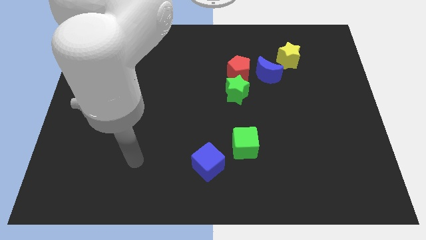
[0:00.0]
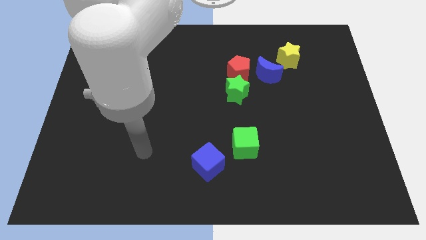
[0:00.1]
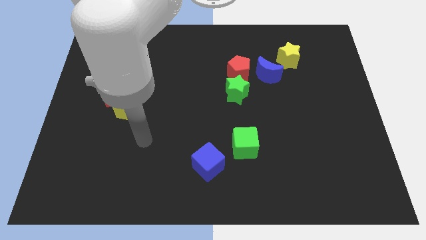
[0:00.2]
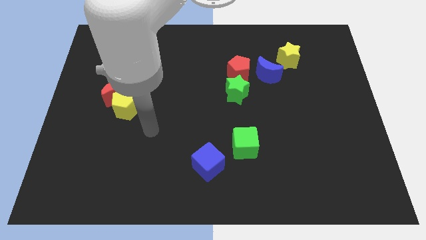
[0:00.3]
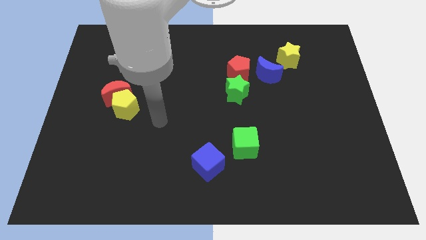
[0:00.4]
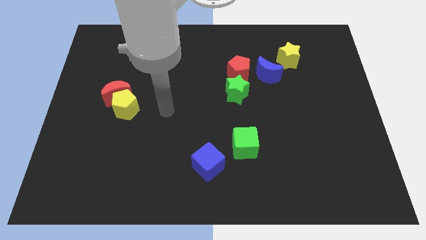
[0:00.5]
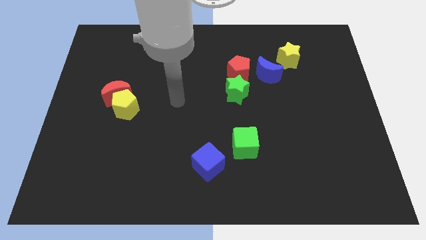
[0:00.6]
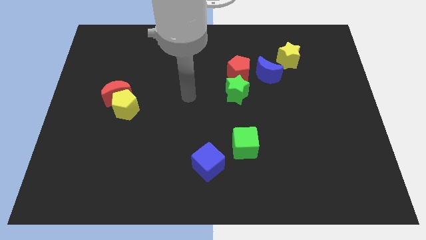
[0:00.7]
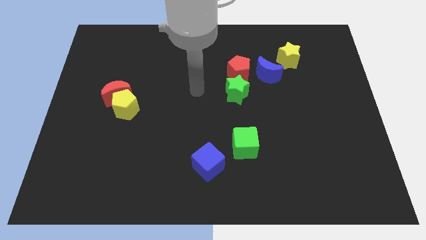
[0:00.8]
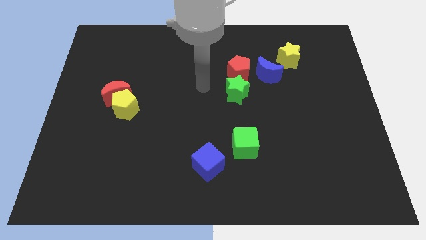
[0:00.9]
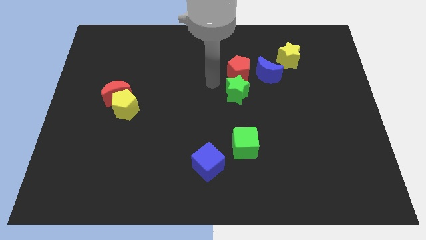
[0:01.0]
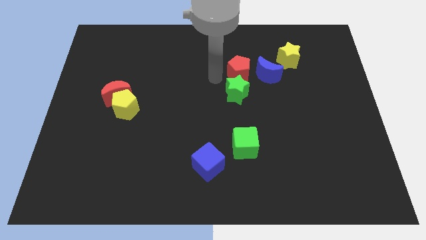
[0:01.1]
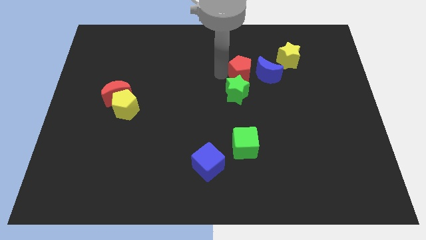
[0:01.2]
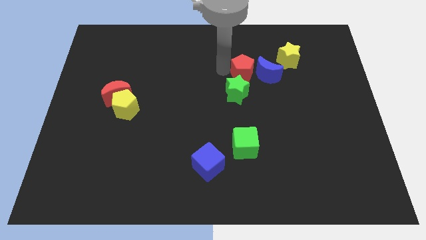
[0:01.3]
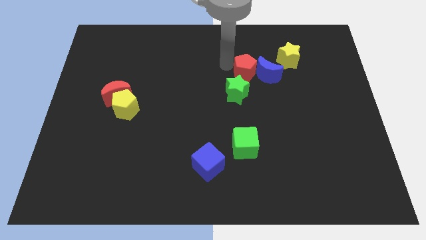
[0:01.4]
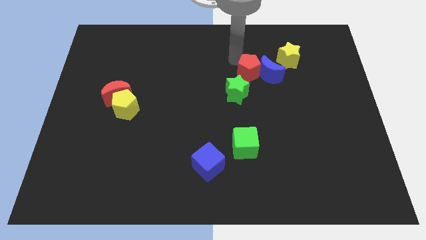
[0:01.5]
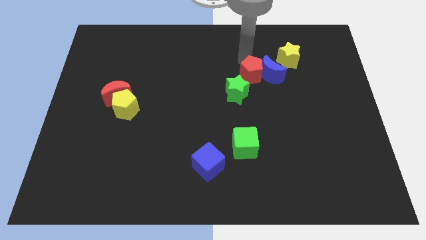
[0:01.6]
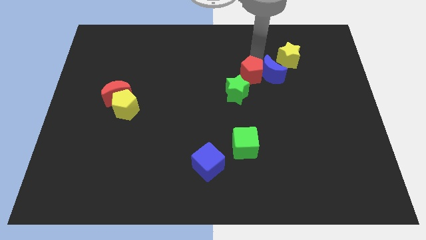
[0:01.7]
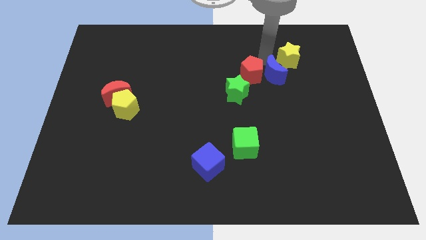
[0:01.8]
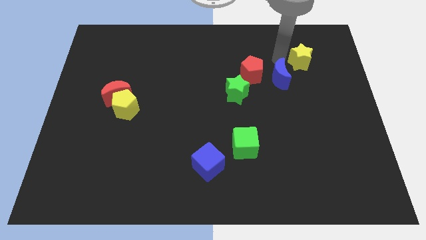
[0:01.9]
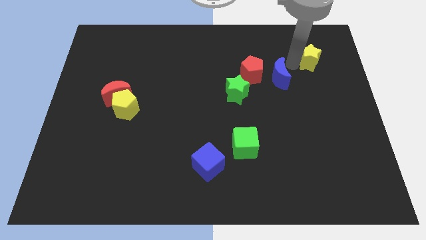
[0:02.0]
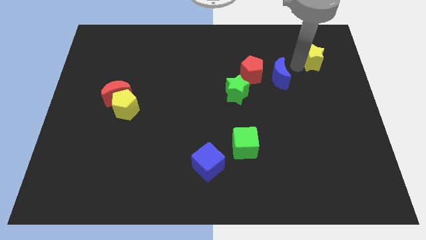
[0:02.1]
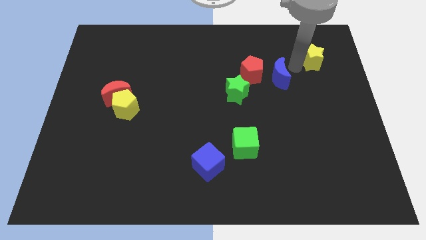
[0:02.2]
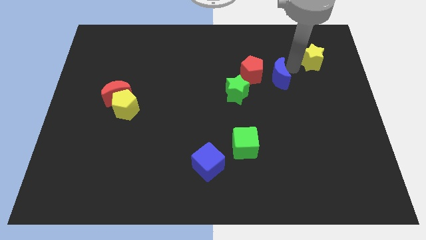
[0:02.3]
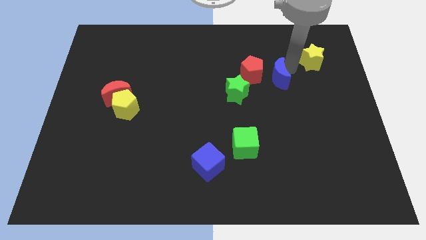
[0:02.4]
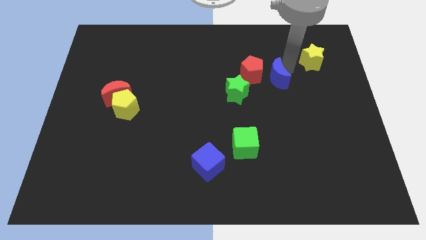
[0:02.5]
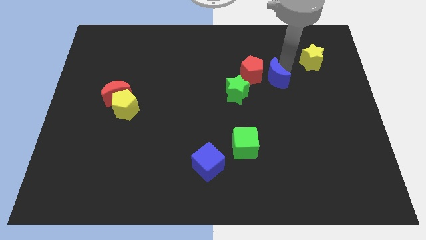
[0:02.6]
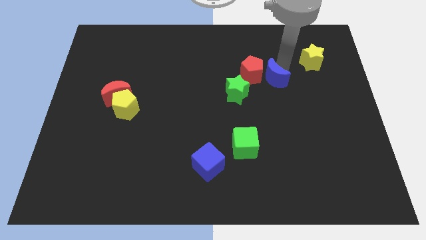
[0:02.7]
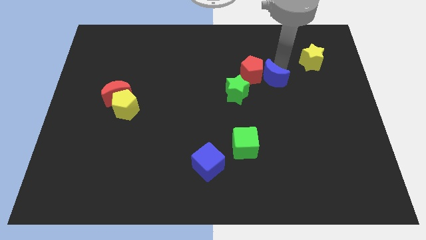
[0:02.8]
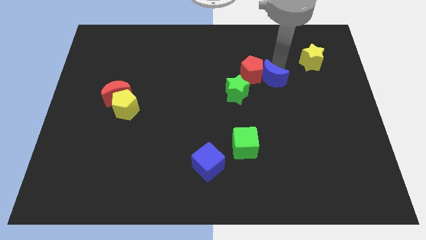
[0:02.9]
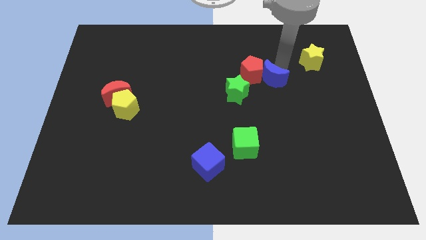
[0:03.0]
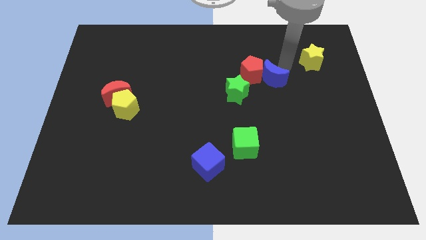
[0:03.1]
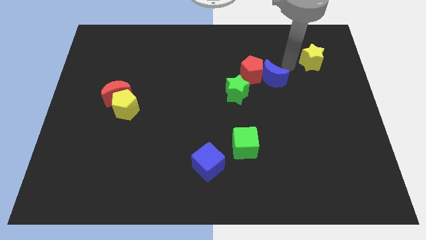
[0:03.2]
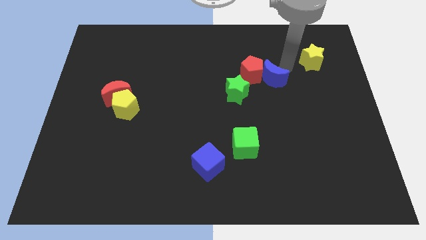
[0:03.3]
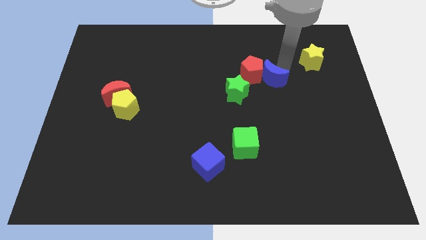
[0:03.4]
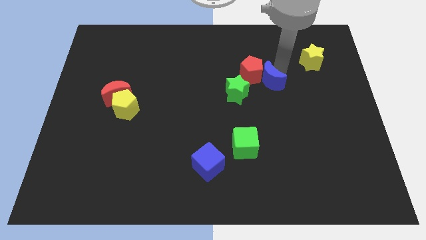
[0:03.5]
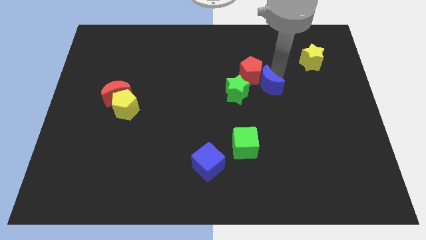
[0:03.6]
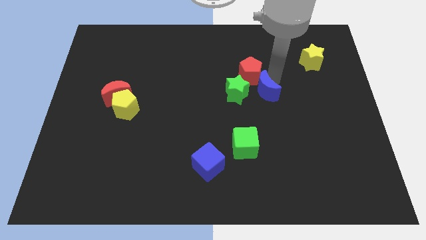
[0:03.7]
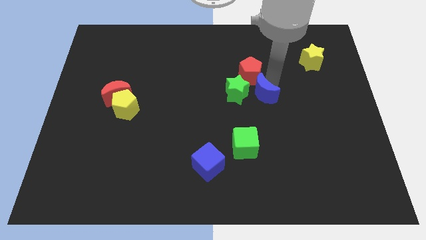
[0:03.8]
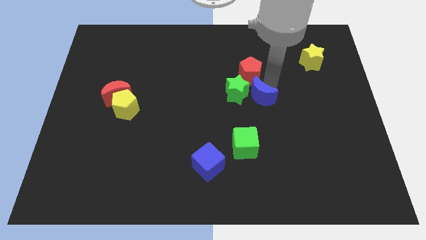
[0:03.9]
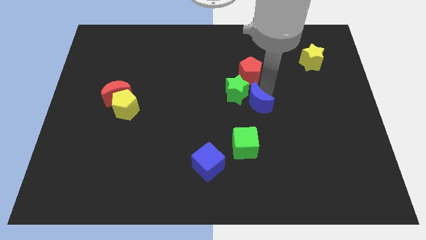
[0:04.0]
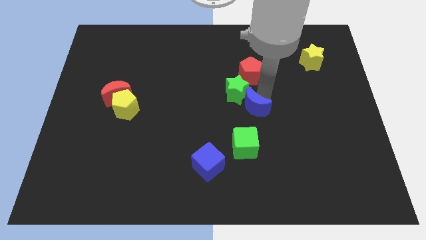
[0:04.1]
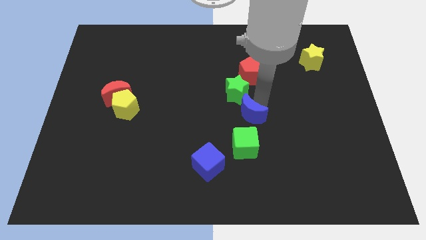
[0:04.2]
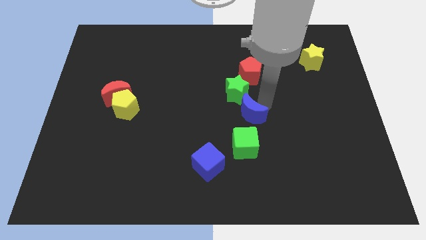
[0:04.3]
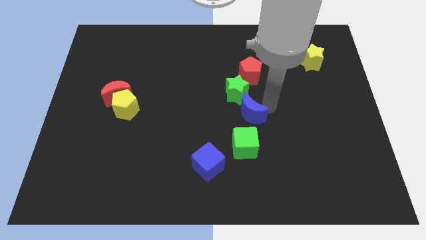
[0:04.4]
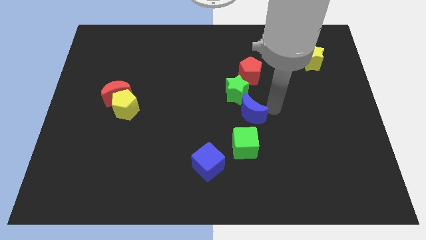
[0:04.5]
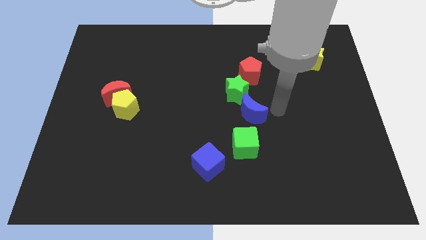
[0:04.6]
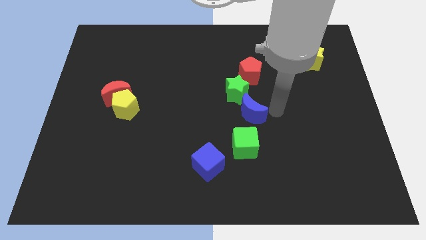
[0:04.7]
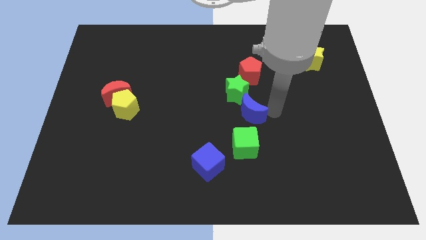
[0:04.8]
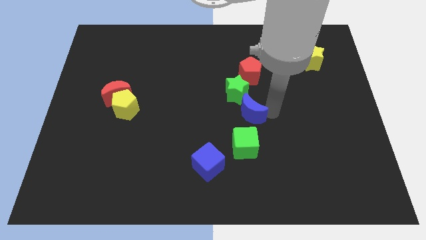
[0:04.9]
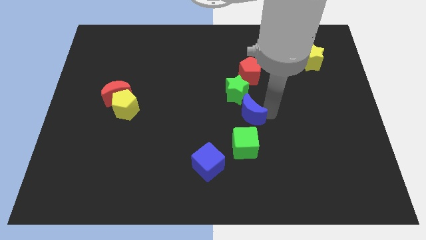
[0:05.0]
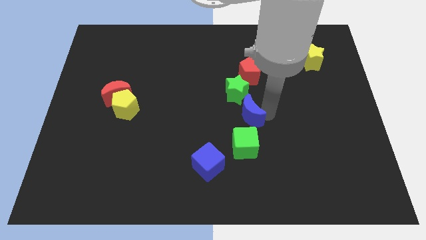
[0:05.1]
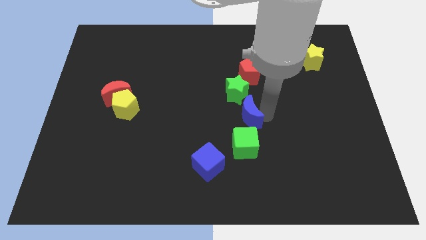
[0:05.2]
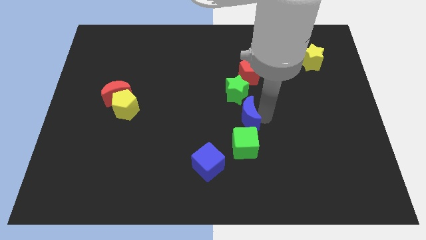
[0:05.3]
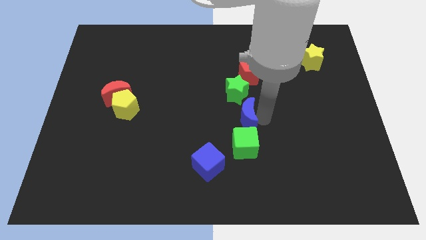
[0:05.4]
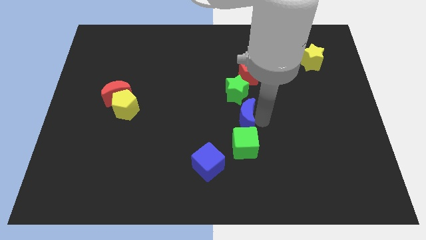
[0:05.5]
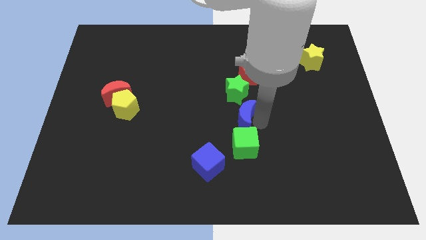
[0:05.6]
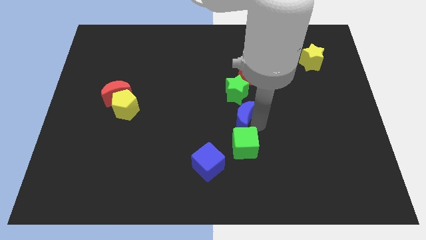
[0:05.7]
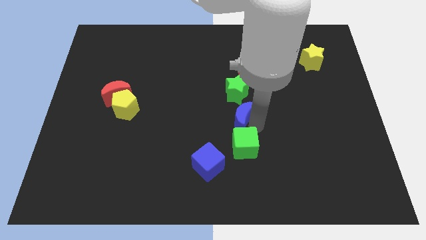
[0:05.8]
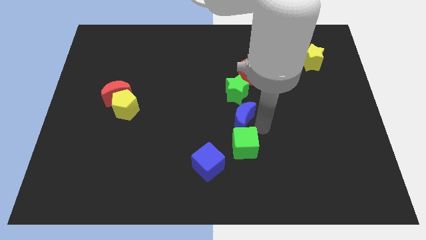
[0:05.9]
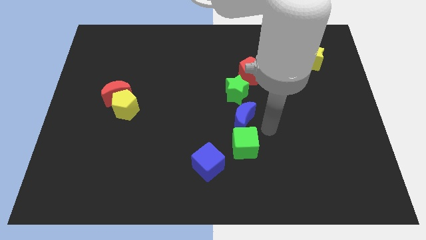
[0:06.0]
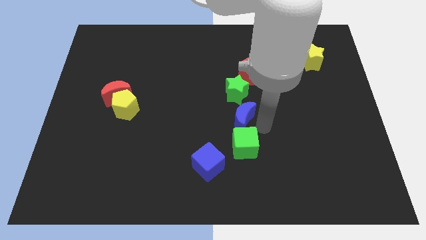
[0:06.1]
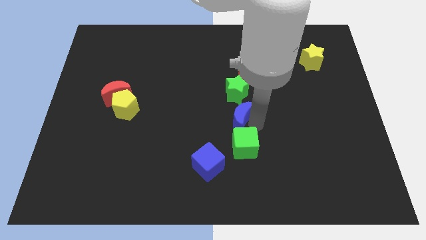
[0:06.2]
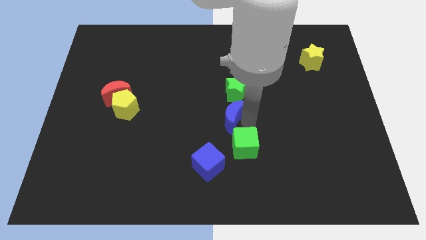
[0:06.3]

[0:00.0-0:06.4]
put the blue moon to the bottom left side of the green star

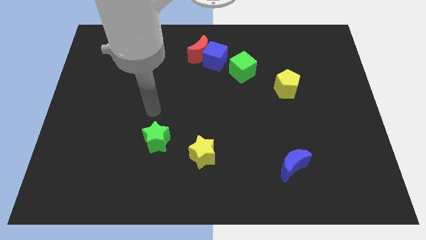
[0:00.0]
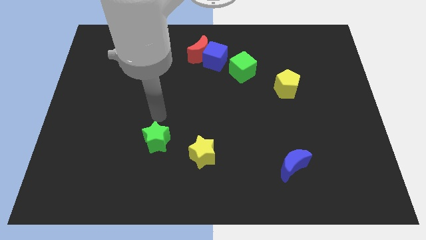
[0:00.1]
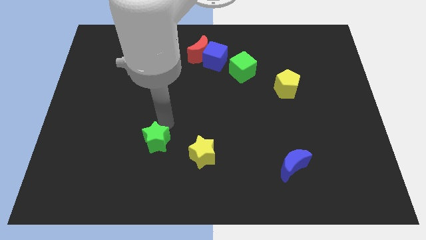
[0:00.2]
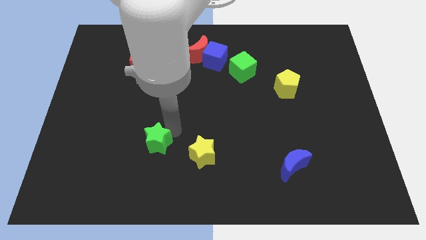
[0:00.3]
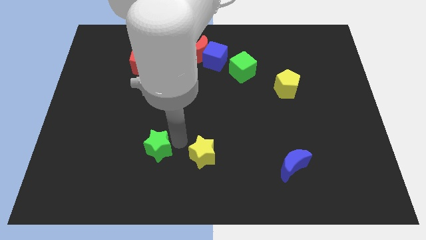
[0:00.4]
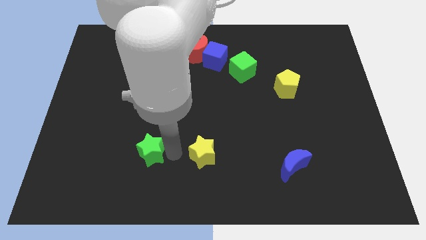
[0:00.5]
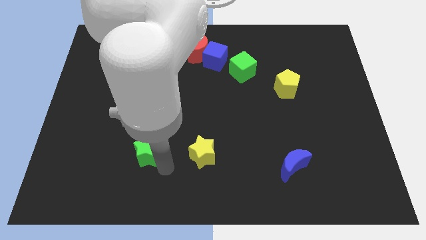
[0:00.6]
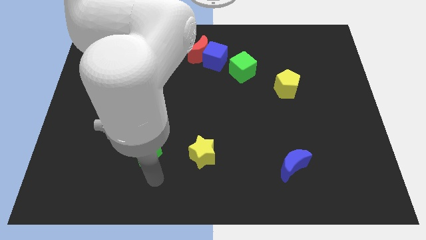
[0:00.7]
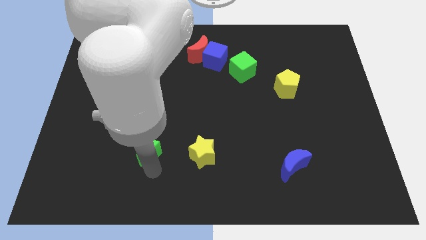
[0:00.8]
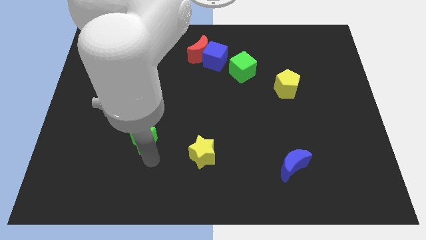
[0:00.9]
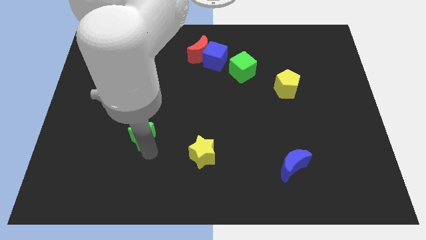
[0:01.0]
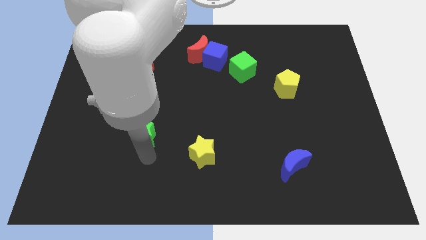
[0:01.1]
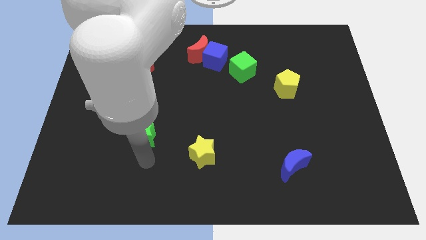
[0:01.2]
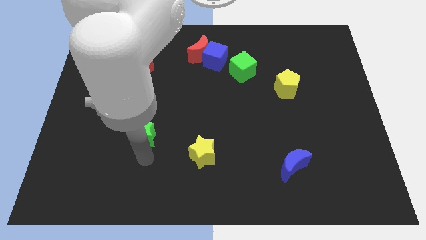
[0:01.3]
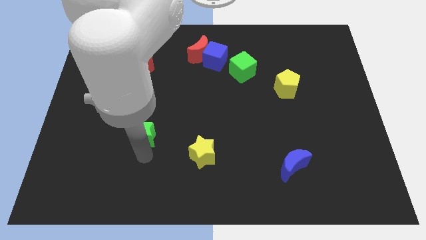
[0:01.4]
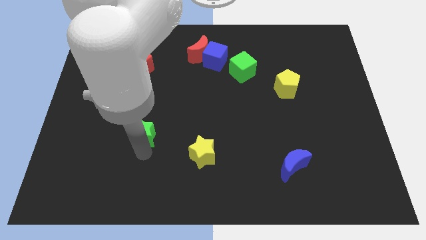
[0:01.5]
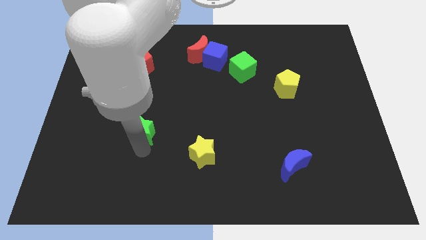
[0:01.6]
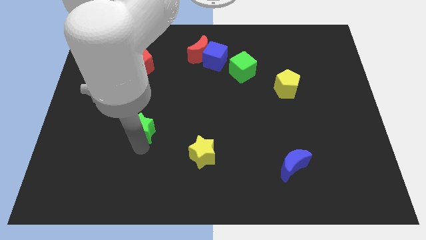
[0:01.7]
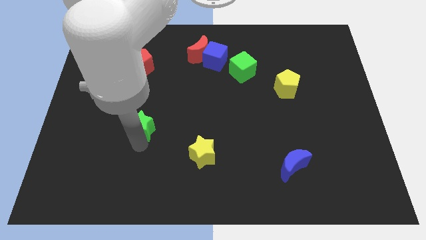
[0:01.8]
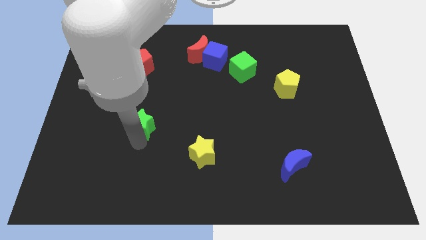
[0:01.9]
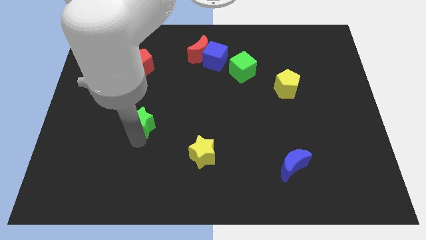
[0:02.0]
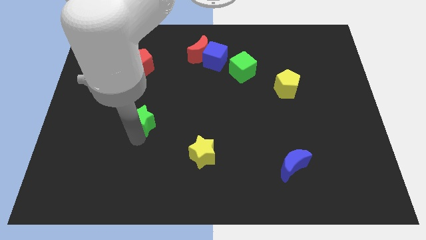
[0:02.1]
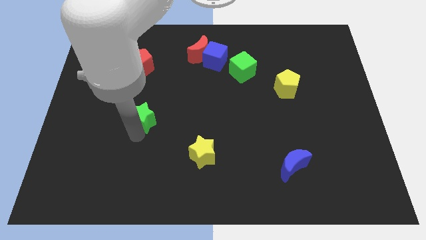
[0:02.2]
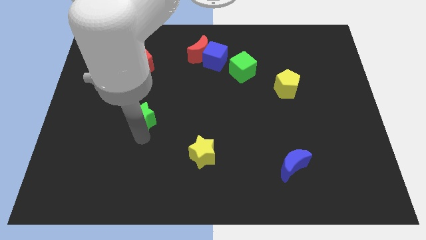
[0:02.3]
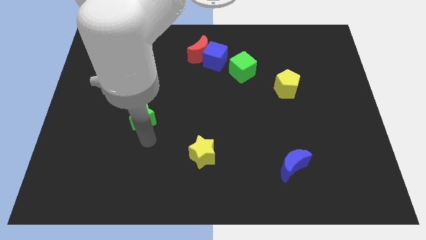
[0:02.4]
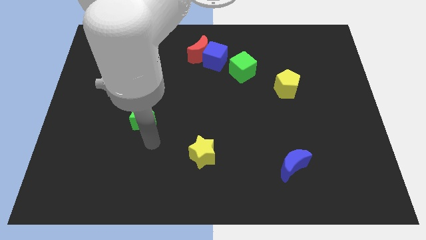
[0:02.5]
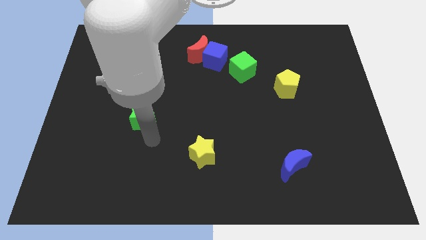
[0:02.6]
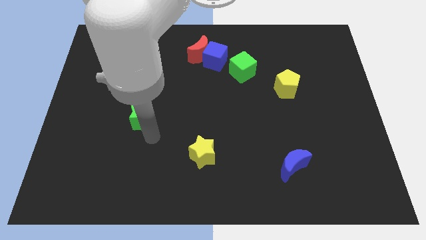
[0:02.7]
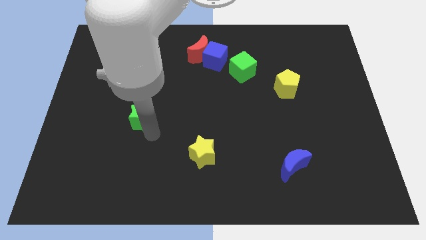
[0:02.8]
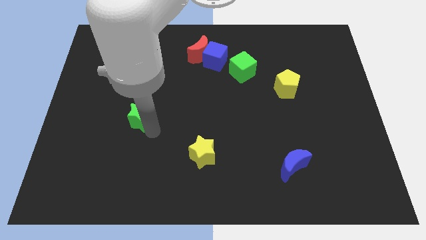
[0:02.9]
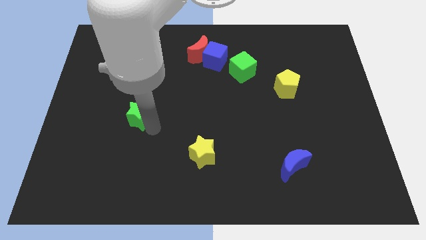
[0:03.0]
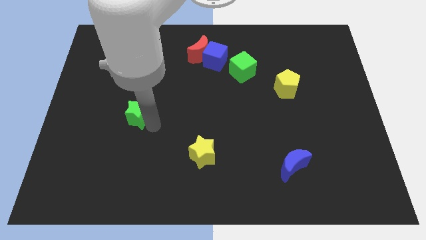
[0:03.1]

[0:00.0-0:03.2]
put the green star below the red pentagon
